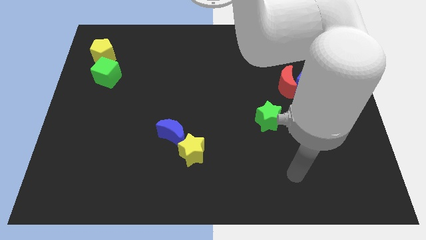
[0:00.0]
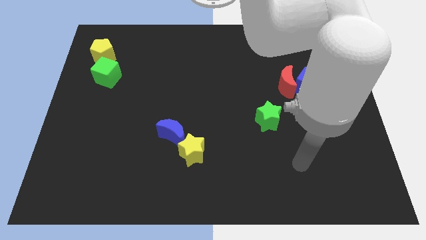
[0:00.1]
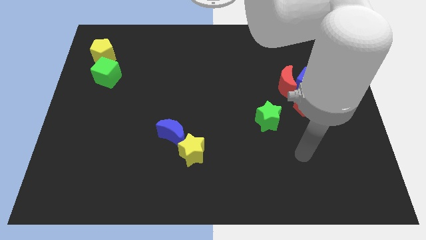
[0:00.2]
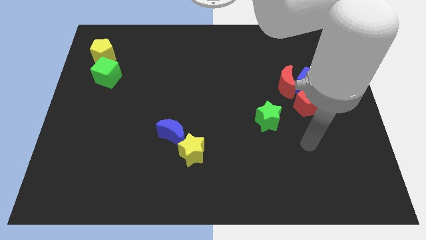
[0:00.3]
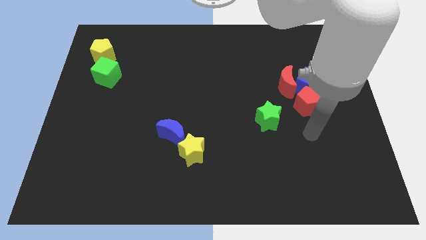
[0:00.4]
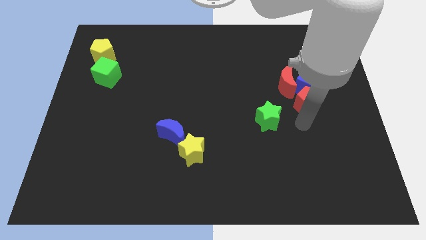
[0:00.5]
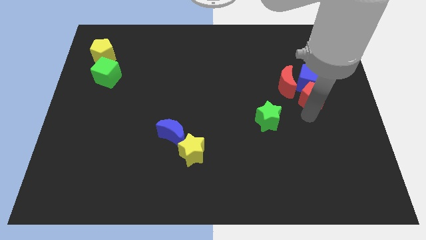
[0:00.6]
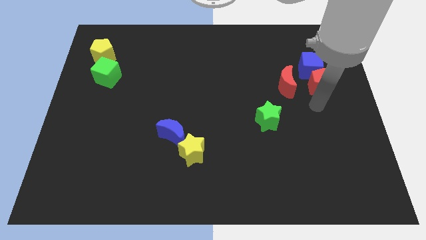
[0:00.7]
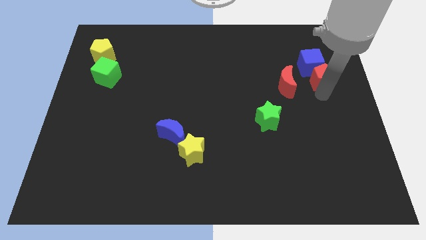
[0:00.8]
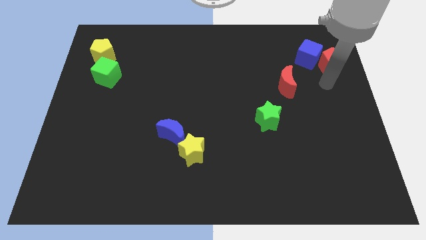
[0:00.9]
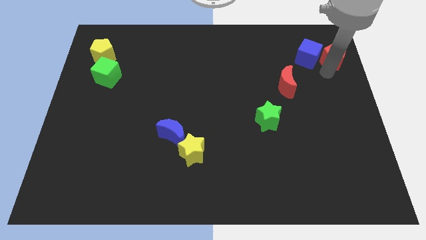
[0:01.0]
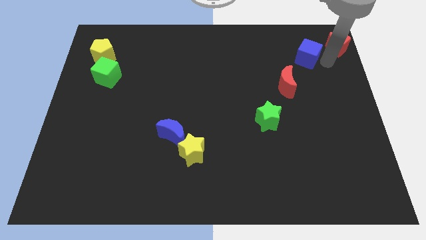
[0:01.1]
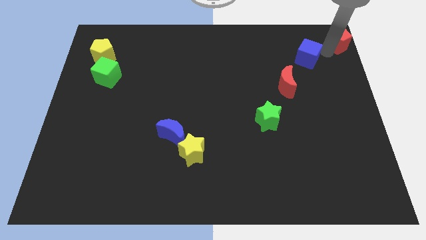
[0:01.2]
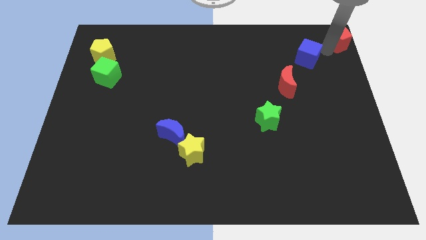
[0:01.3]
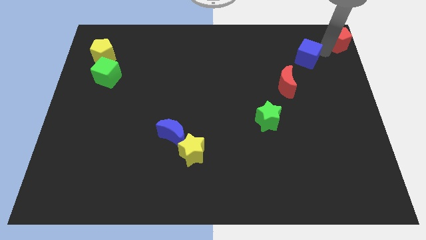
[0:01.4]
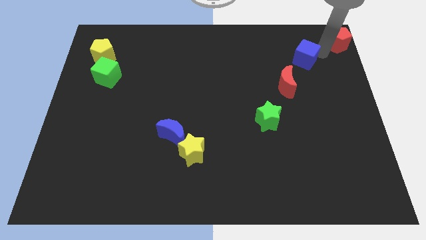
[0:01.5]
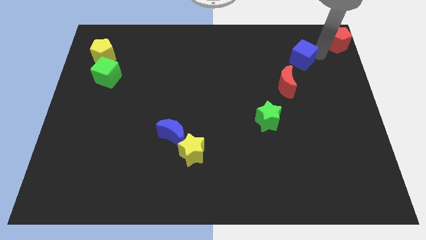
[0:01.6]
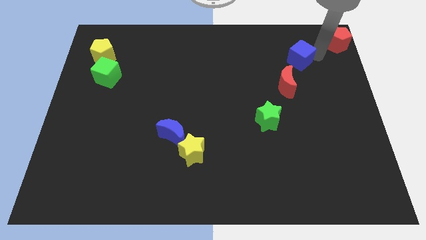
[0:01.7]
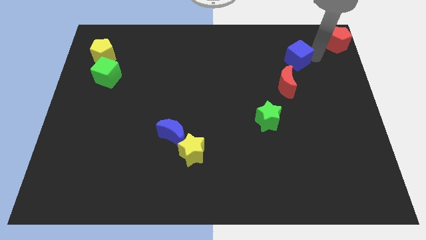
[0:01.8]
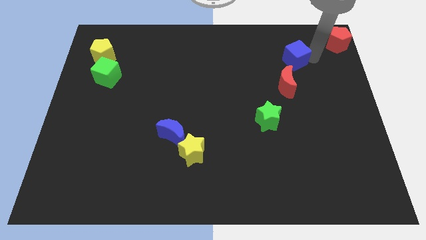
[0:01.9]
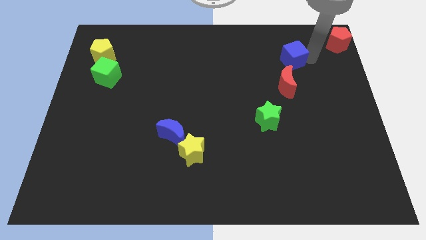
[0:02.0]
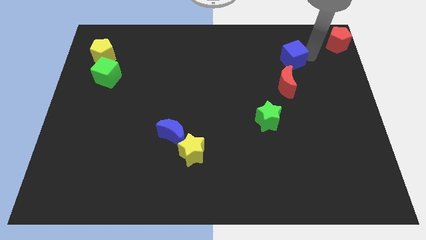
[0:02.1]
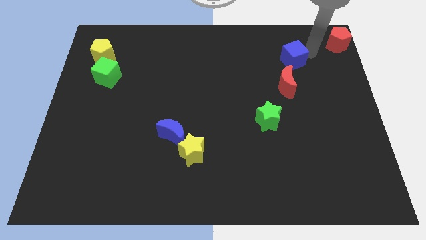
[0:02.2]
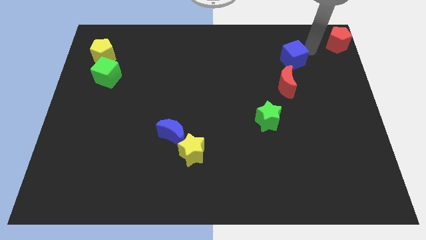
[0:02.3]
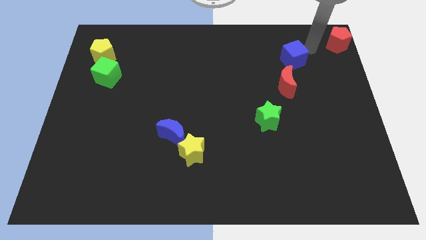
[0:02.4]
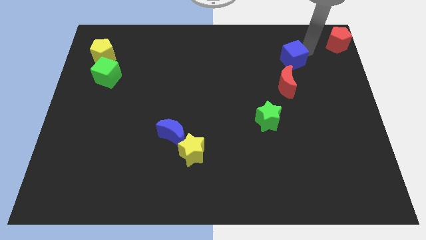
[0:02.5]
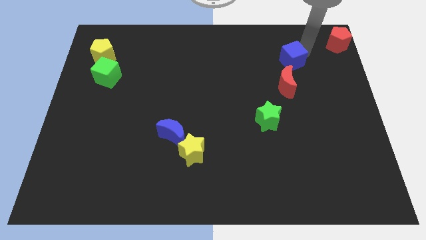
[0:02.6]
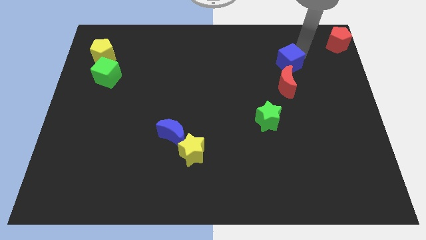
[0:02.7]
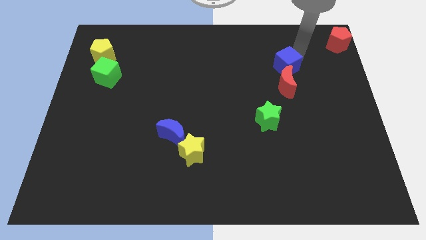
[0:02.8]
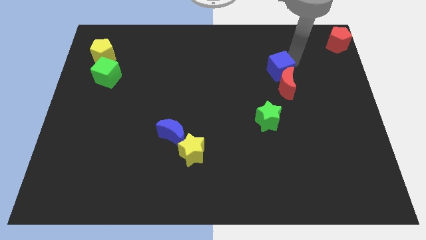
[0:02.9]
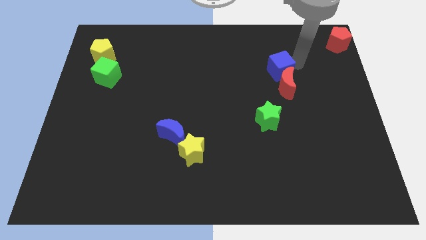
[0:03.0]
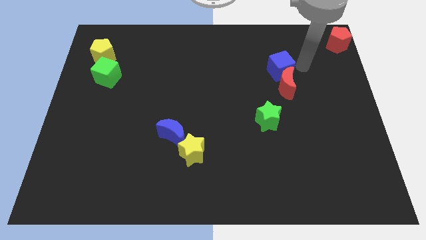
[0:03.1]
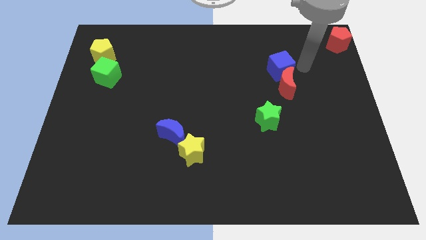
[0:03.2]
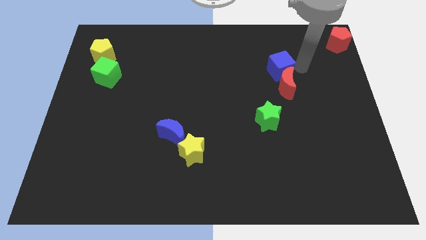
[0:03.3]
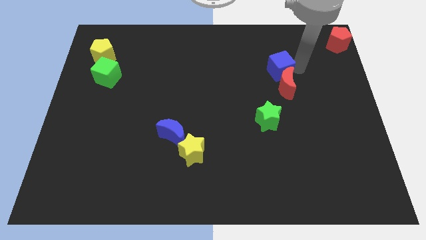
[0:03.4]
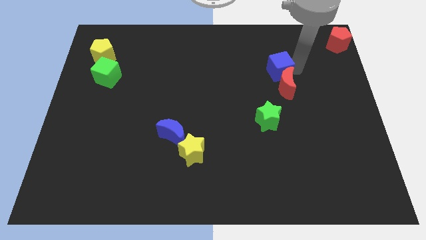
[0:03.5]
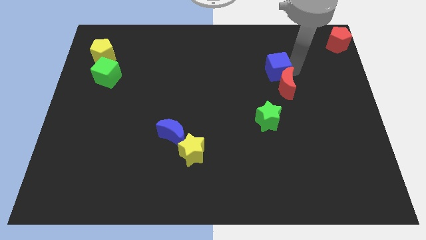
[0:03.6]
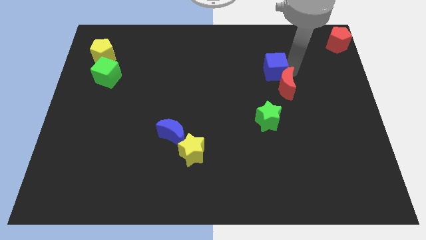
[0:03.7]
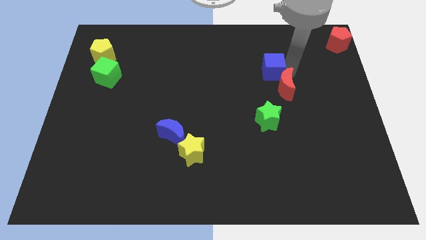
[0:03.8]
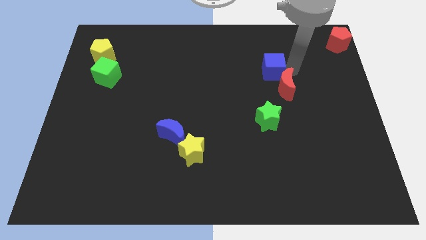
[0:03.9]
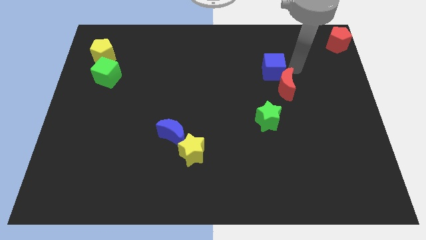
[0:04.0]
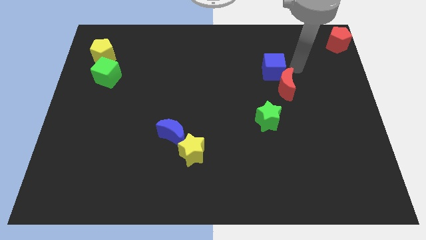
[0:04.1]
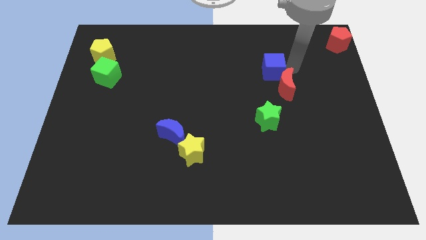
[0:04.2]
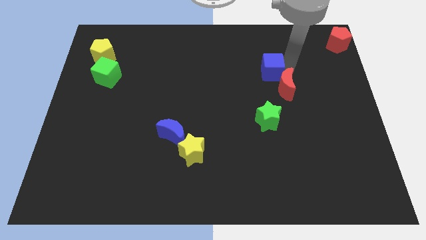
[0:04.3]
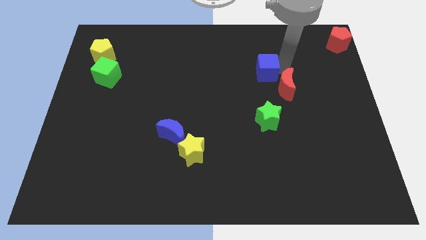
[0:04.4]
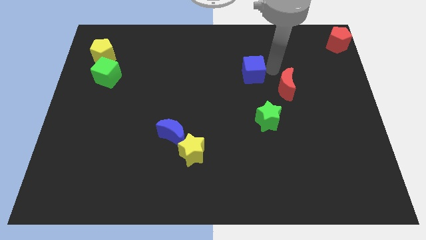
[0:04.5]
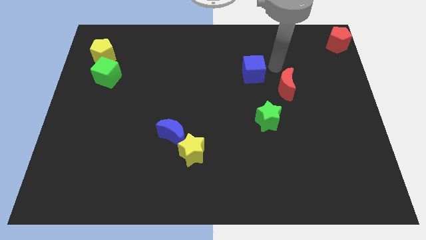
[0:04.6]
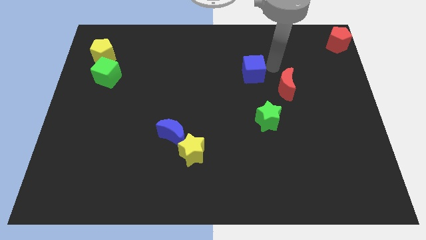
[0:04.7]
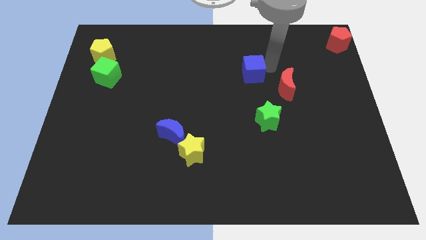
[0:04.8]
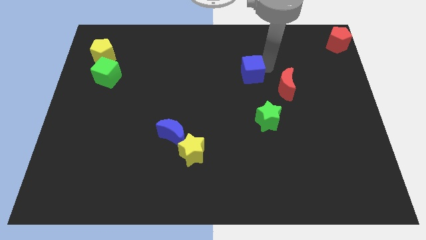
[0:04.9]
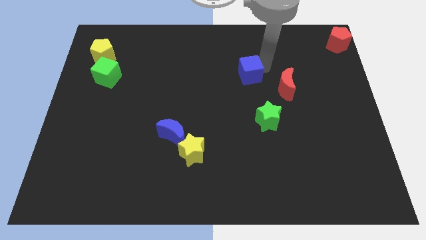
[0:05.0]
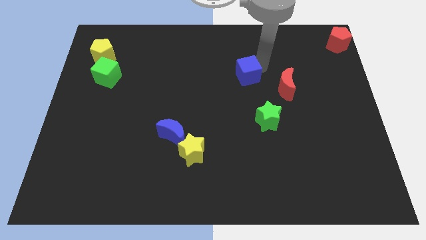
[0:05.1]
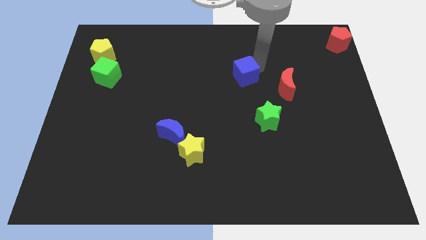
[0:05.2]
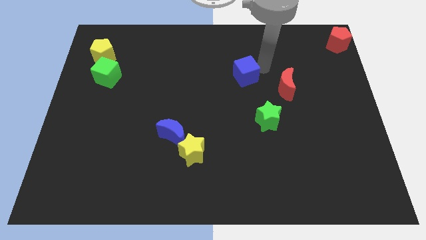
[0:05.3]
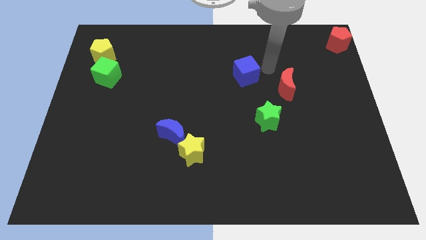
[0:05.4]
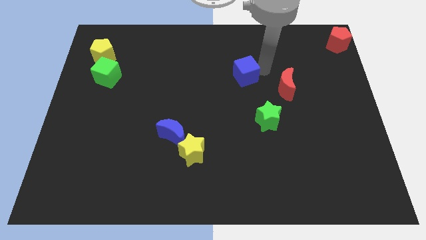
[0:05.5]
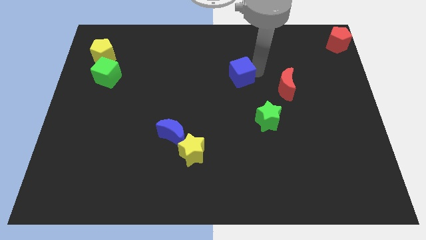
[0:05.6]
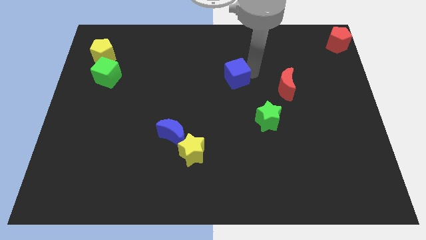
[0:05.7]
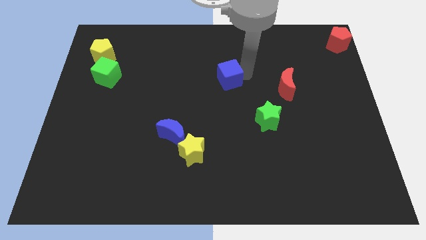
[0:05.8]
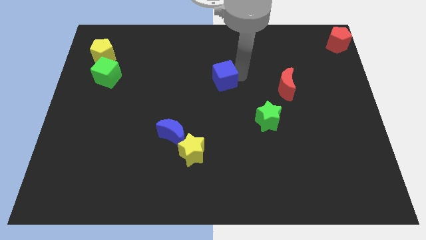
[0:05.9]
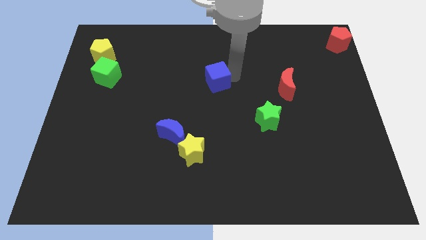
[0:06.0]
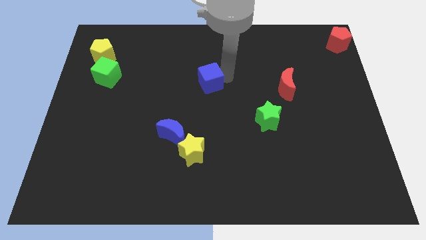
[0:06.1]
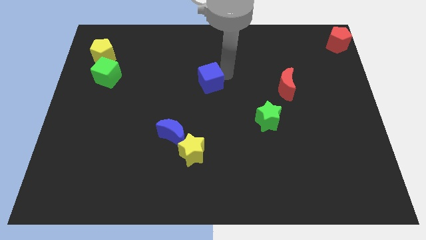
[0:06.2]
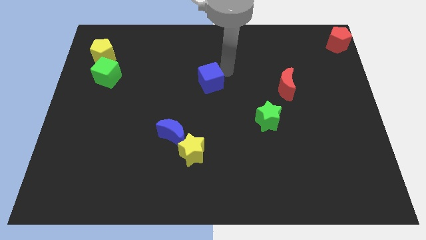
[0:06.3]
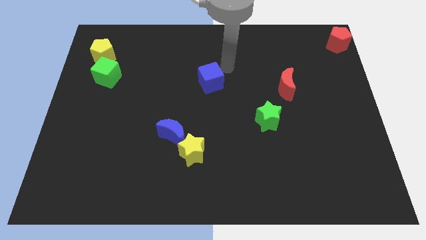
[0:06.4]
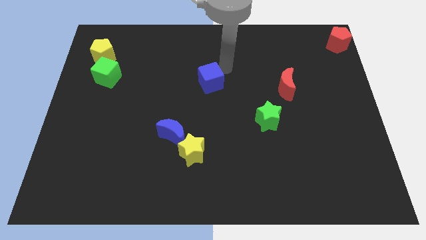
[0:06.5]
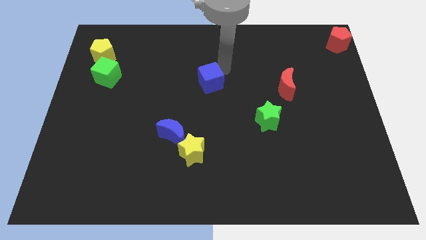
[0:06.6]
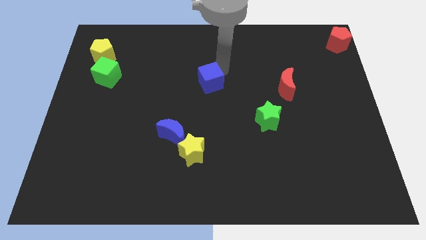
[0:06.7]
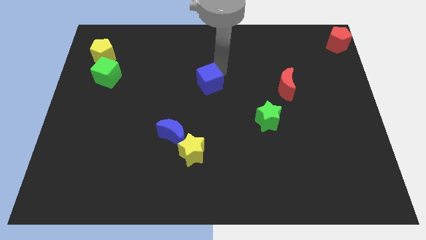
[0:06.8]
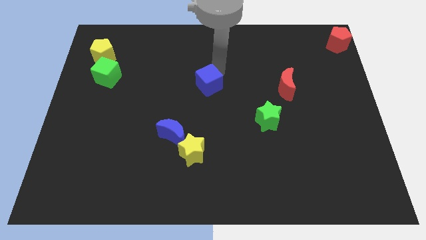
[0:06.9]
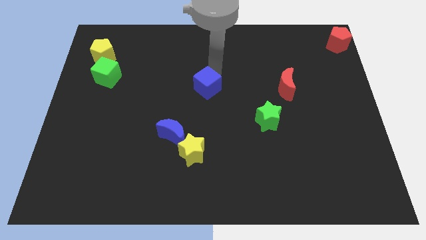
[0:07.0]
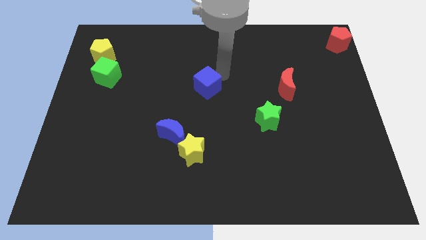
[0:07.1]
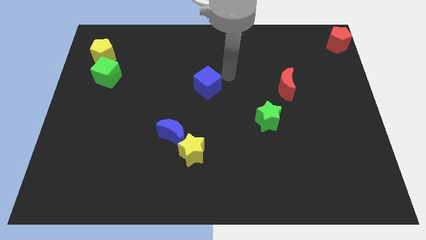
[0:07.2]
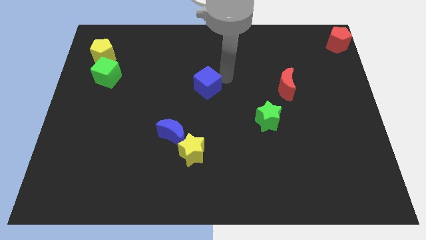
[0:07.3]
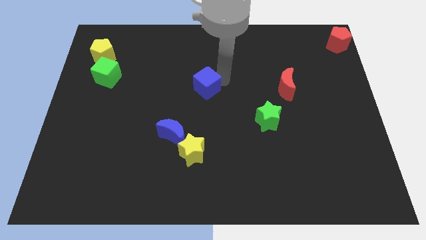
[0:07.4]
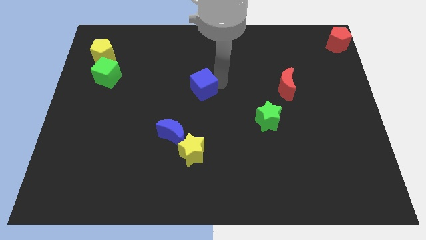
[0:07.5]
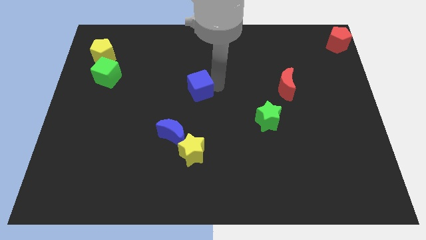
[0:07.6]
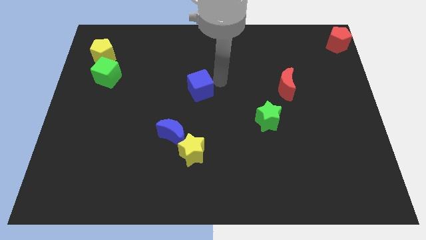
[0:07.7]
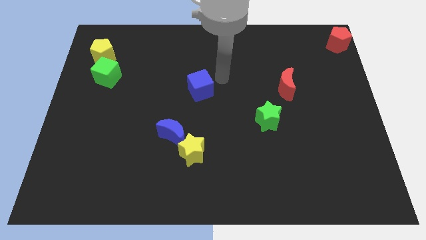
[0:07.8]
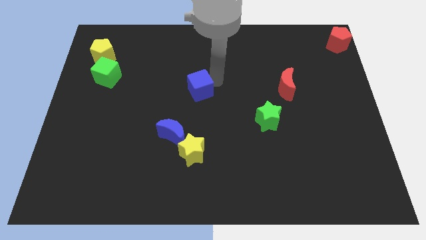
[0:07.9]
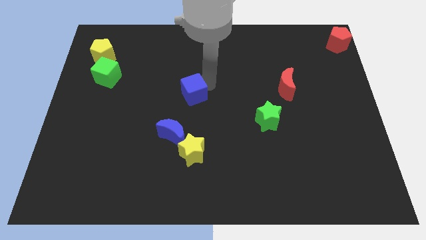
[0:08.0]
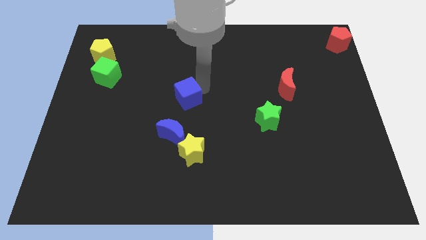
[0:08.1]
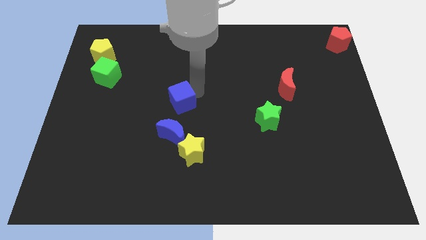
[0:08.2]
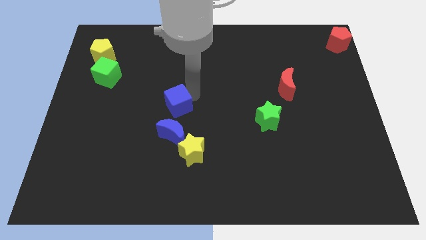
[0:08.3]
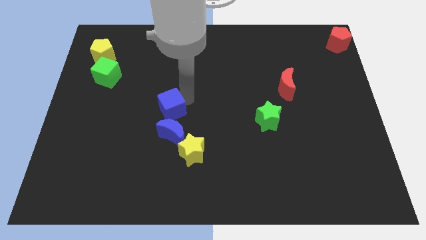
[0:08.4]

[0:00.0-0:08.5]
push the blue cube to the top left of the blue moon
